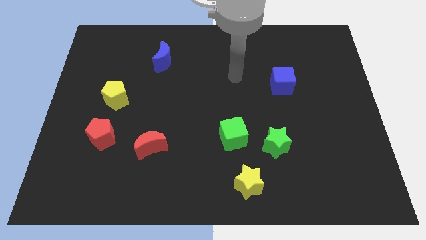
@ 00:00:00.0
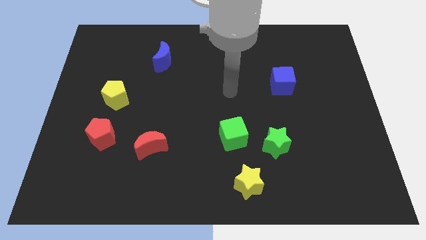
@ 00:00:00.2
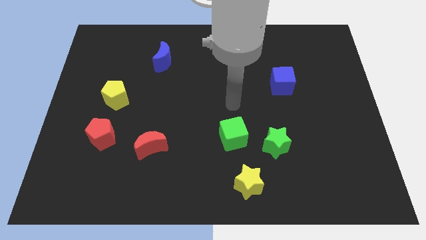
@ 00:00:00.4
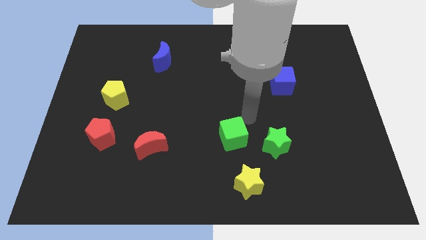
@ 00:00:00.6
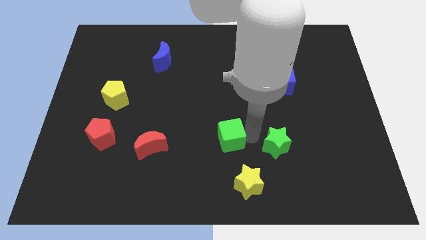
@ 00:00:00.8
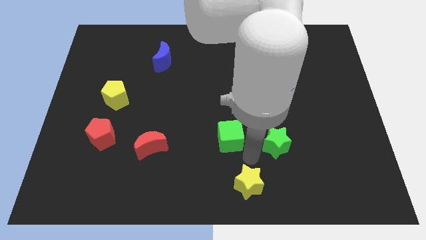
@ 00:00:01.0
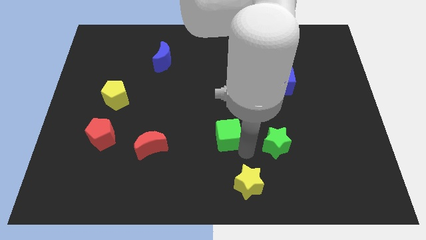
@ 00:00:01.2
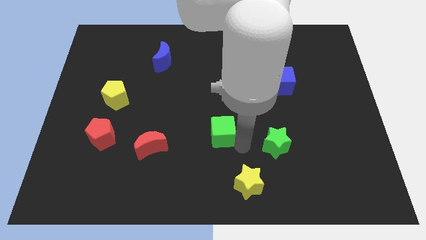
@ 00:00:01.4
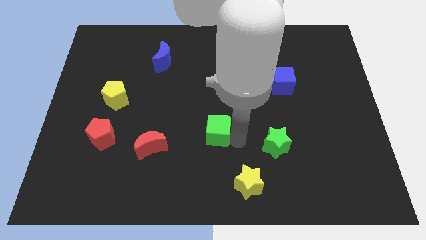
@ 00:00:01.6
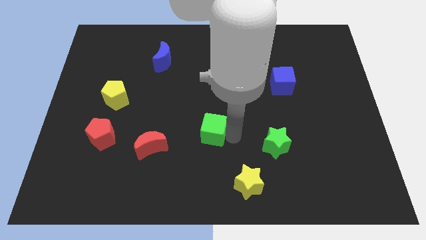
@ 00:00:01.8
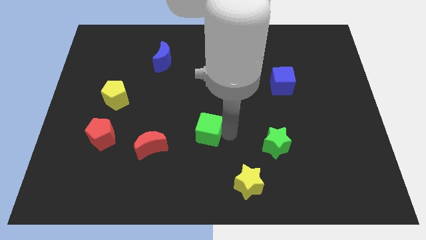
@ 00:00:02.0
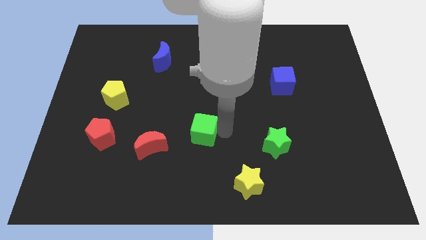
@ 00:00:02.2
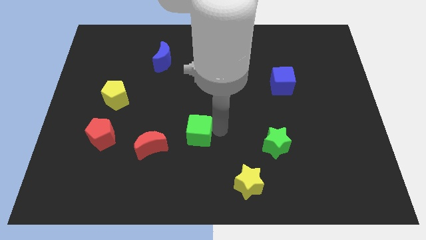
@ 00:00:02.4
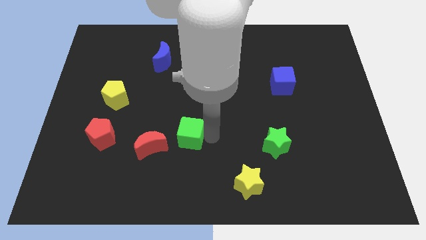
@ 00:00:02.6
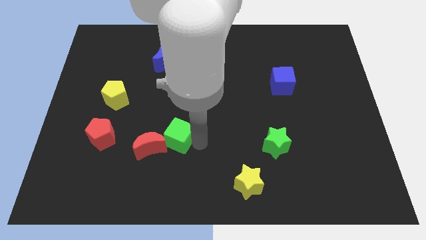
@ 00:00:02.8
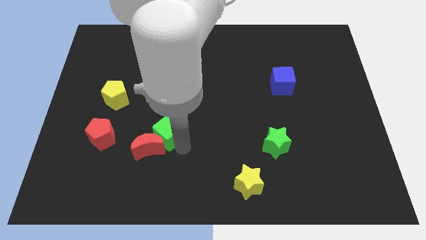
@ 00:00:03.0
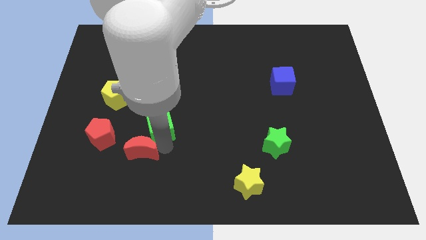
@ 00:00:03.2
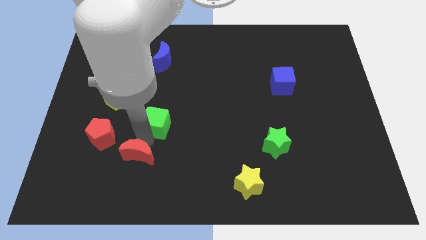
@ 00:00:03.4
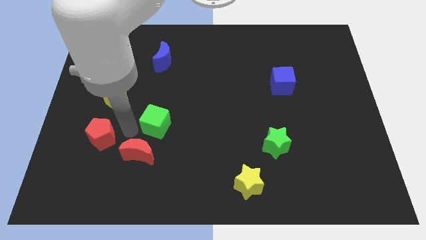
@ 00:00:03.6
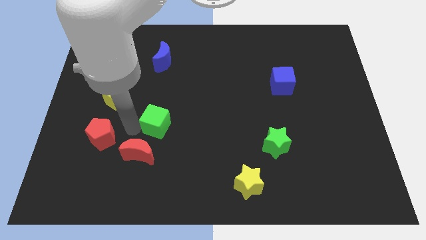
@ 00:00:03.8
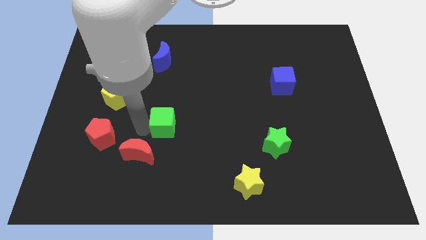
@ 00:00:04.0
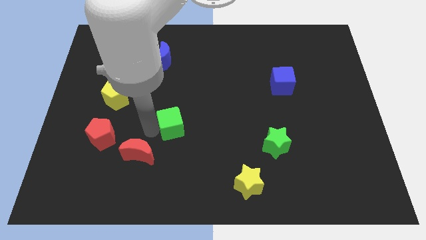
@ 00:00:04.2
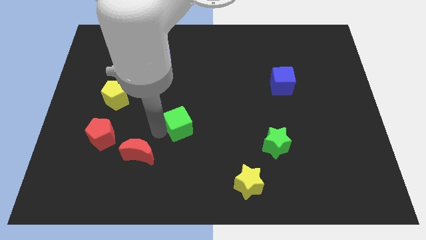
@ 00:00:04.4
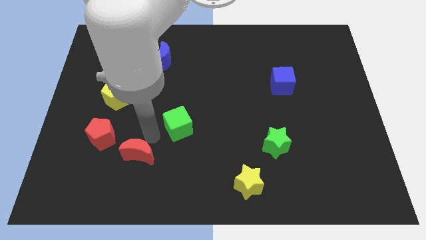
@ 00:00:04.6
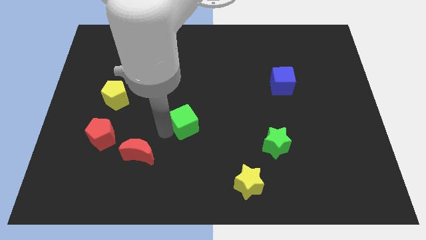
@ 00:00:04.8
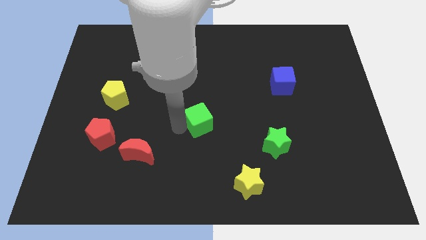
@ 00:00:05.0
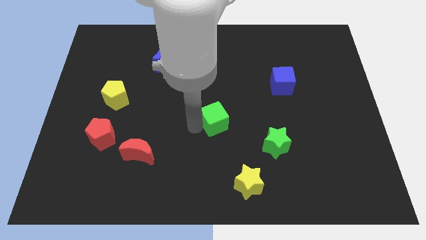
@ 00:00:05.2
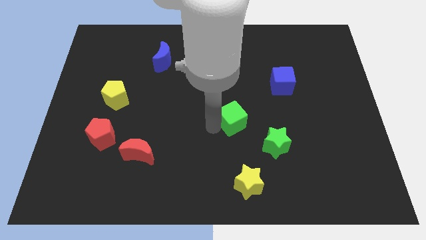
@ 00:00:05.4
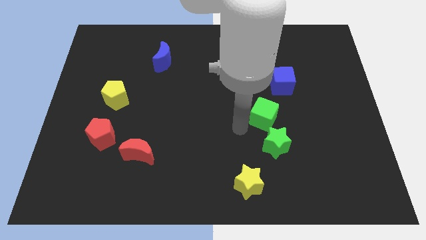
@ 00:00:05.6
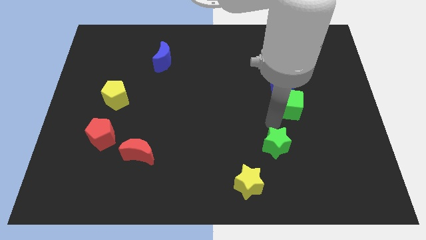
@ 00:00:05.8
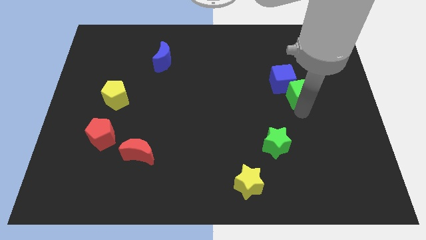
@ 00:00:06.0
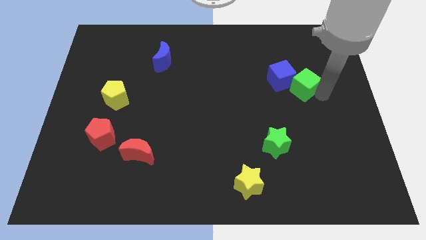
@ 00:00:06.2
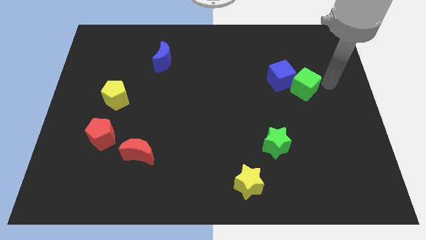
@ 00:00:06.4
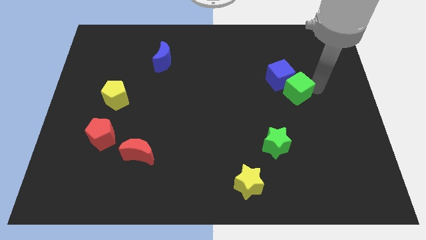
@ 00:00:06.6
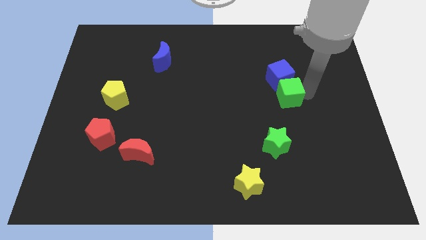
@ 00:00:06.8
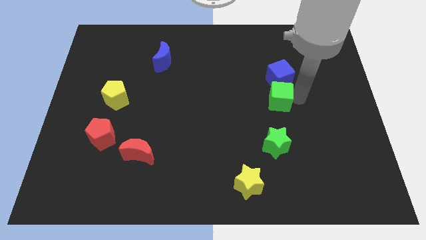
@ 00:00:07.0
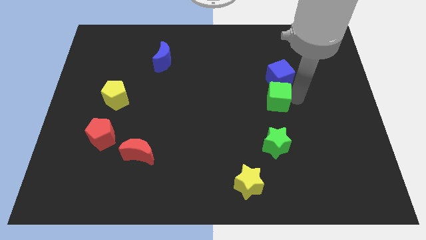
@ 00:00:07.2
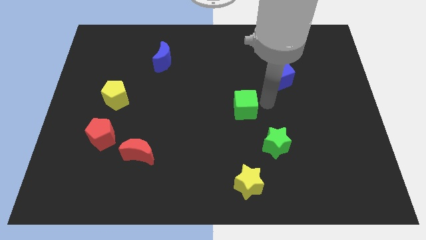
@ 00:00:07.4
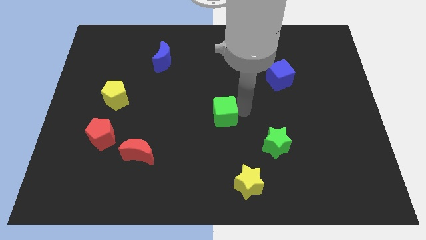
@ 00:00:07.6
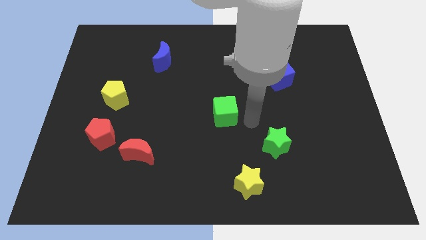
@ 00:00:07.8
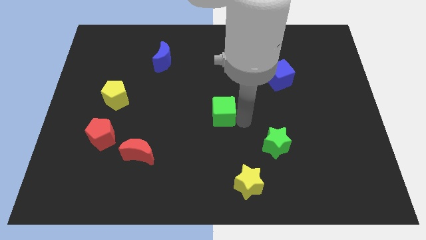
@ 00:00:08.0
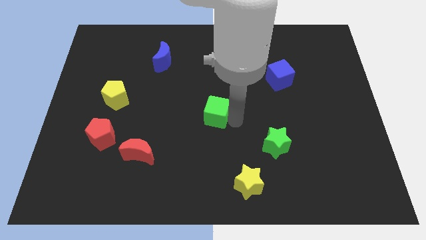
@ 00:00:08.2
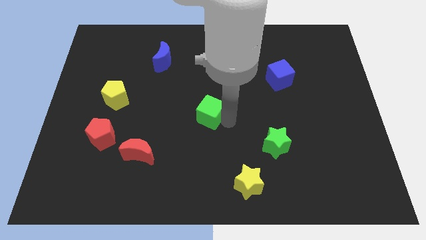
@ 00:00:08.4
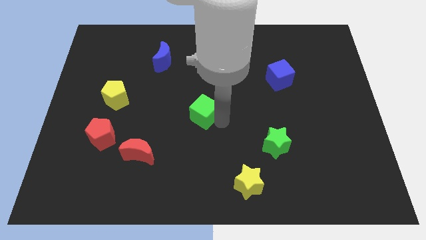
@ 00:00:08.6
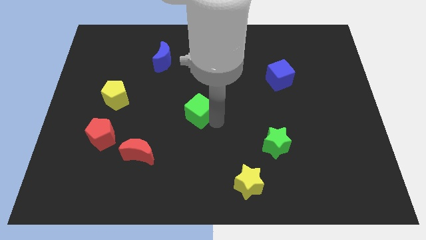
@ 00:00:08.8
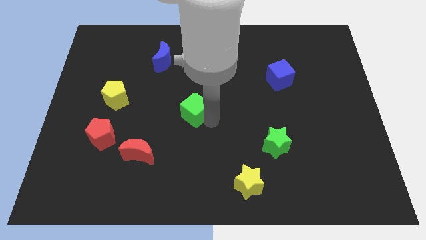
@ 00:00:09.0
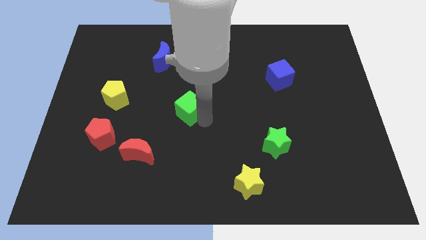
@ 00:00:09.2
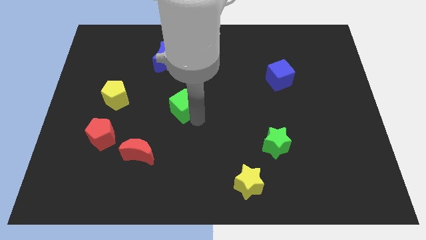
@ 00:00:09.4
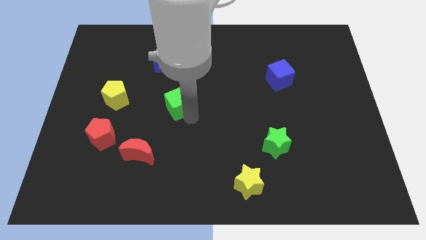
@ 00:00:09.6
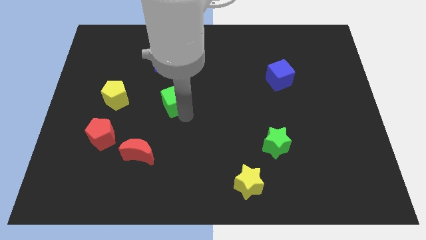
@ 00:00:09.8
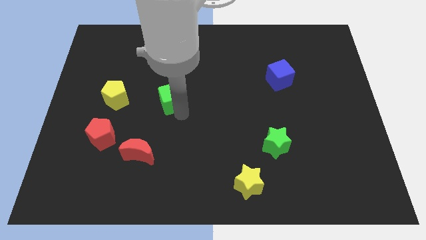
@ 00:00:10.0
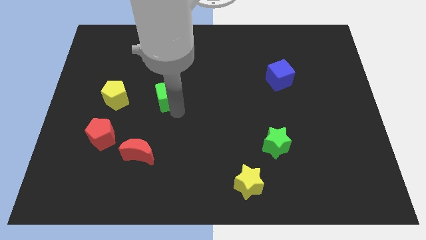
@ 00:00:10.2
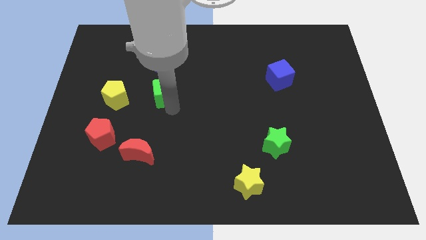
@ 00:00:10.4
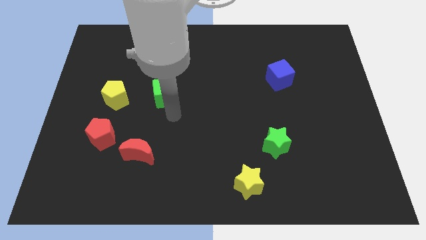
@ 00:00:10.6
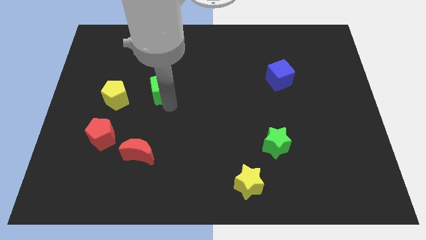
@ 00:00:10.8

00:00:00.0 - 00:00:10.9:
move the green cube upwards and left diagonally

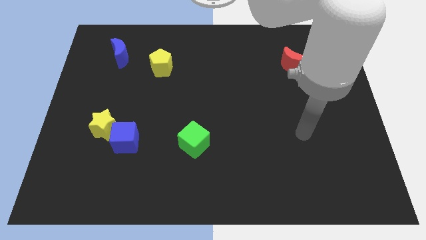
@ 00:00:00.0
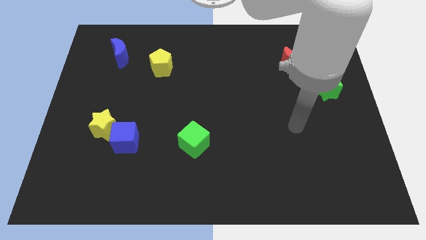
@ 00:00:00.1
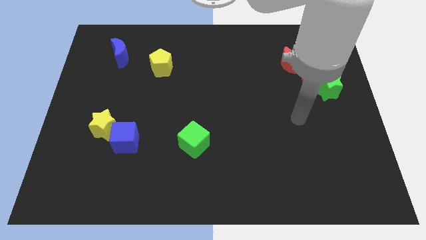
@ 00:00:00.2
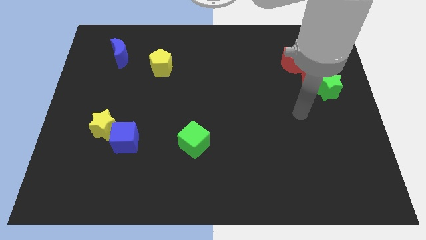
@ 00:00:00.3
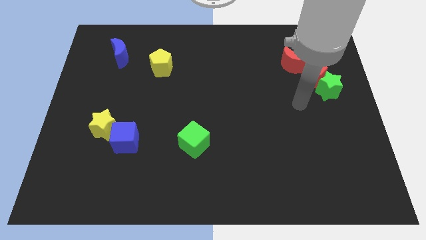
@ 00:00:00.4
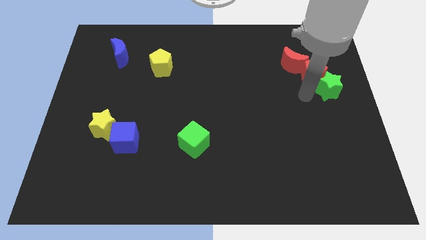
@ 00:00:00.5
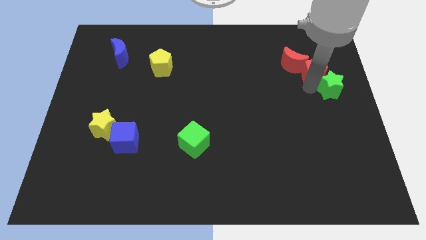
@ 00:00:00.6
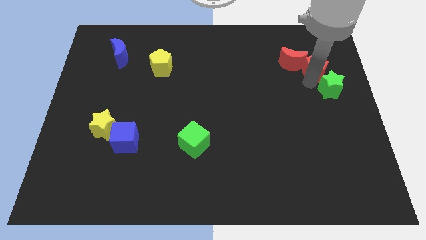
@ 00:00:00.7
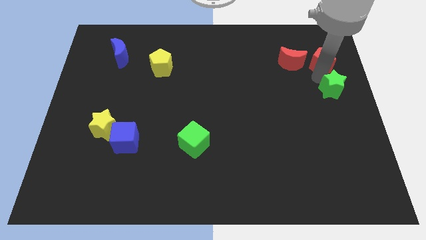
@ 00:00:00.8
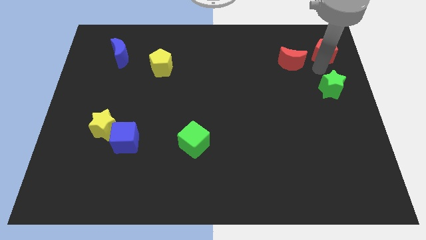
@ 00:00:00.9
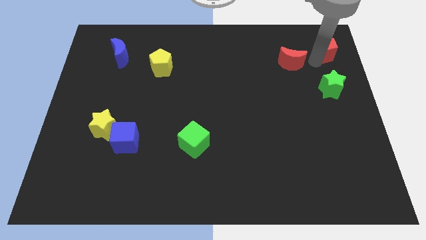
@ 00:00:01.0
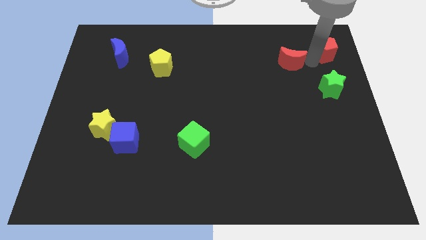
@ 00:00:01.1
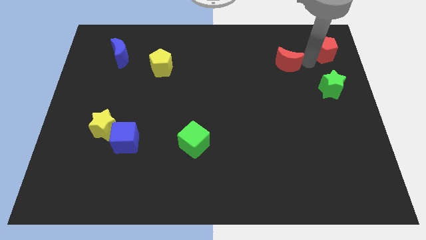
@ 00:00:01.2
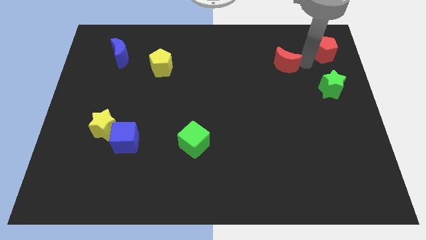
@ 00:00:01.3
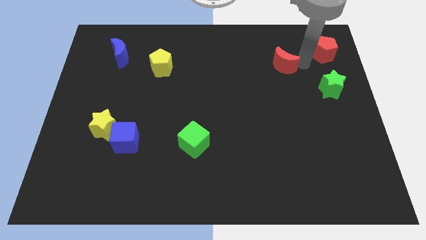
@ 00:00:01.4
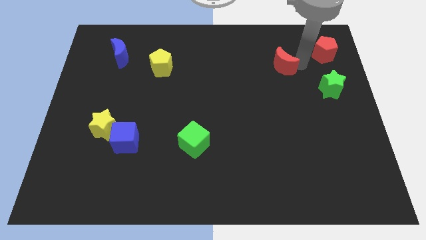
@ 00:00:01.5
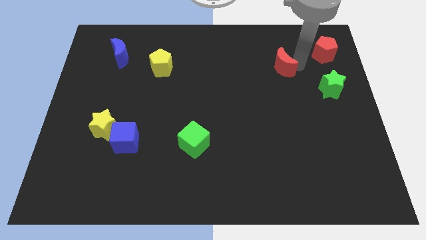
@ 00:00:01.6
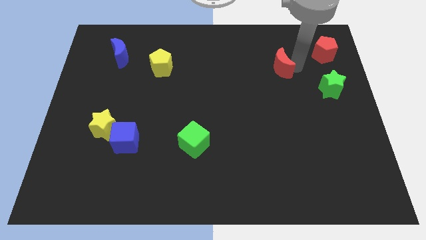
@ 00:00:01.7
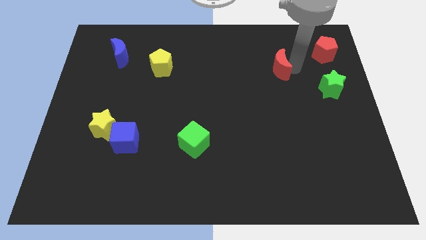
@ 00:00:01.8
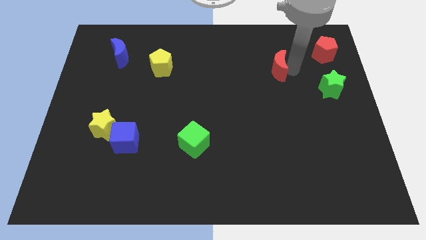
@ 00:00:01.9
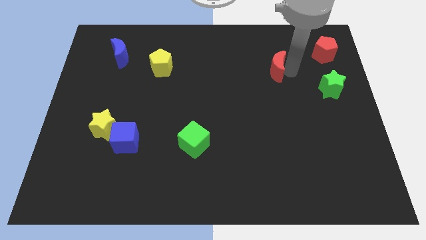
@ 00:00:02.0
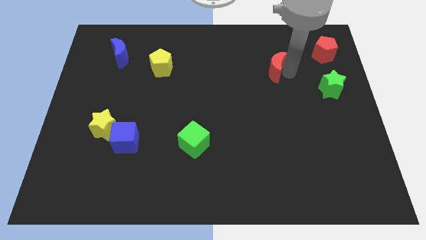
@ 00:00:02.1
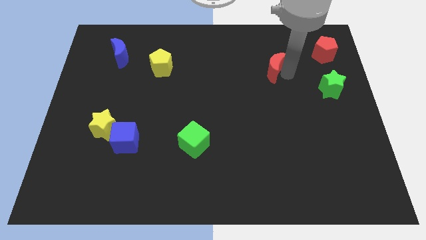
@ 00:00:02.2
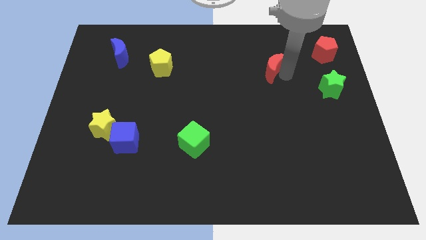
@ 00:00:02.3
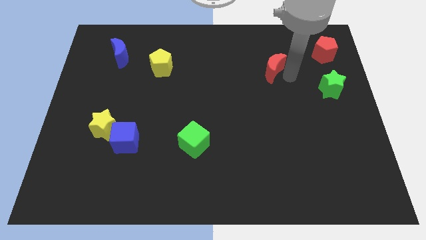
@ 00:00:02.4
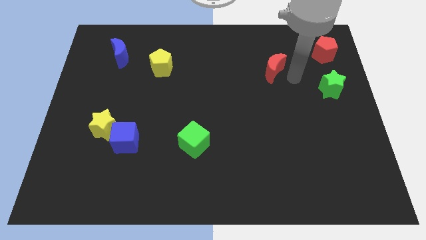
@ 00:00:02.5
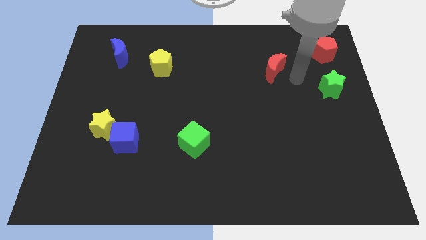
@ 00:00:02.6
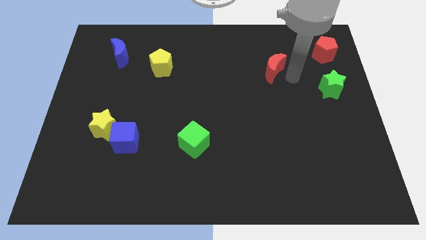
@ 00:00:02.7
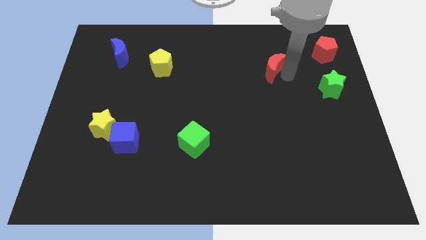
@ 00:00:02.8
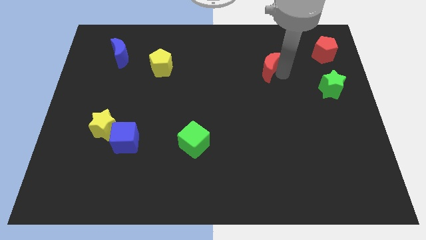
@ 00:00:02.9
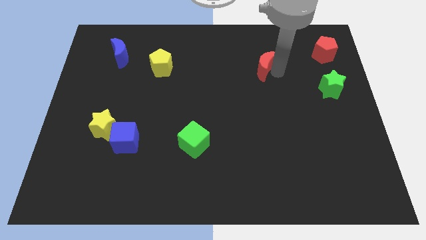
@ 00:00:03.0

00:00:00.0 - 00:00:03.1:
move the red moon to the left a little
